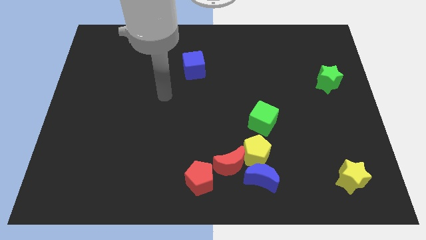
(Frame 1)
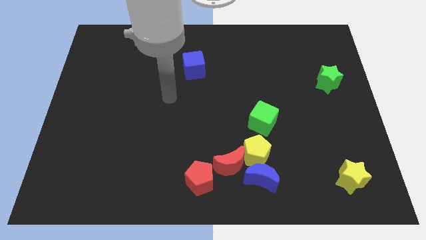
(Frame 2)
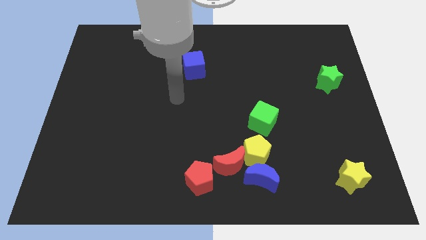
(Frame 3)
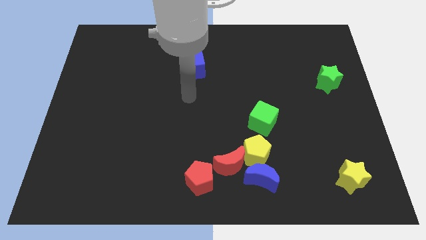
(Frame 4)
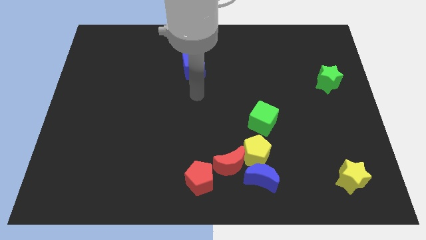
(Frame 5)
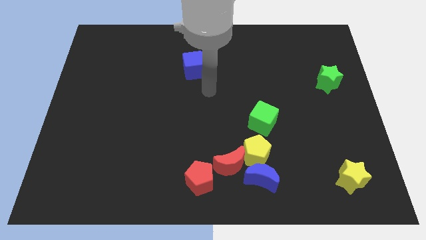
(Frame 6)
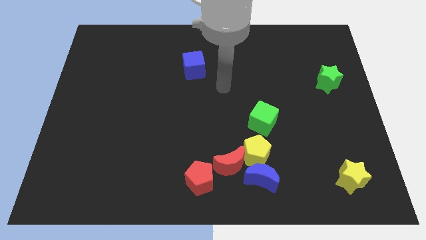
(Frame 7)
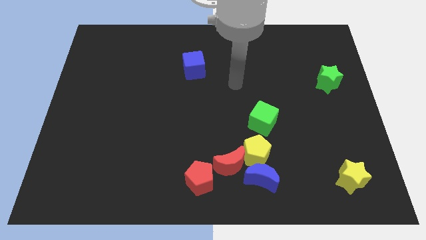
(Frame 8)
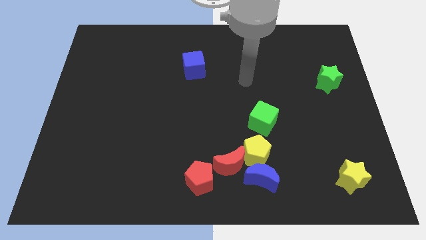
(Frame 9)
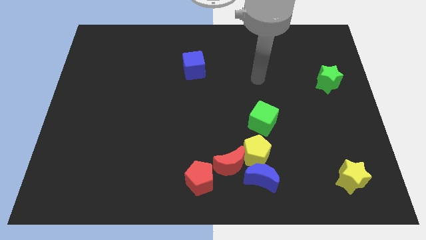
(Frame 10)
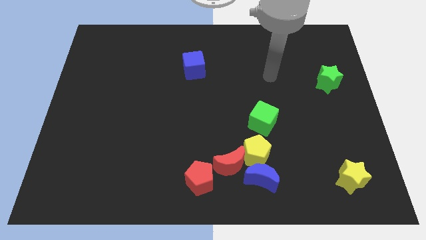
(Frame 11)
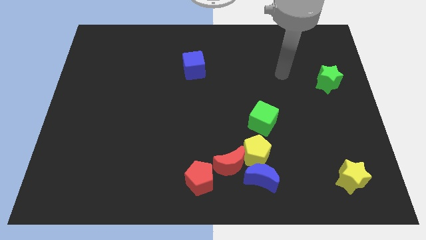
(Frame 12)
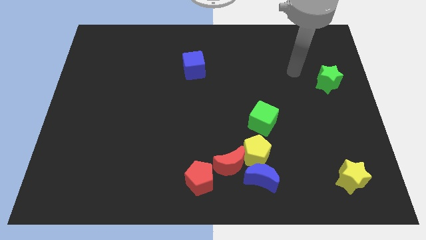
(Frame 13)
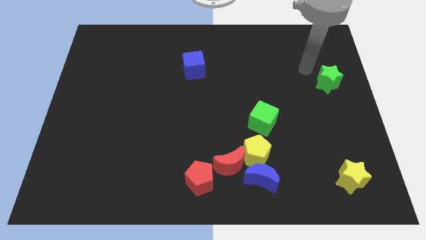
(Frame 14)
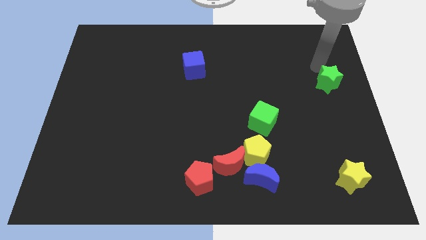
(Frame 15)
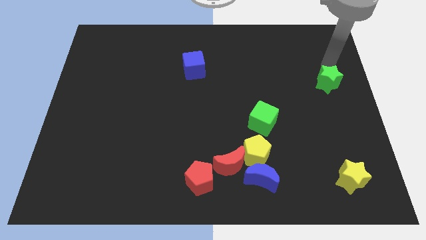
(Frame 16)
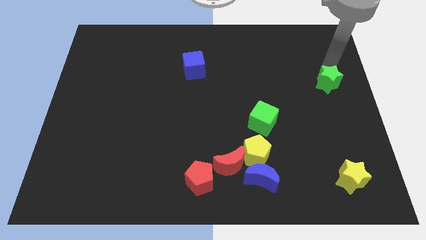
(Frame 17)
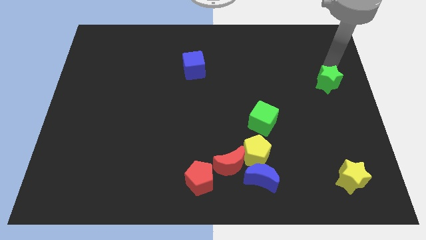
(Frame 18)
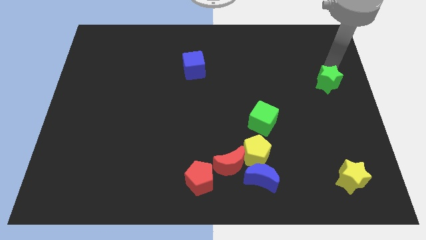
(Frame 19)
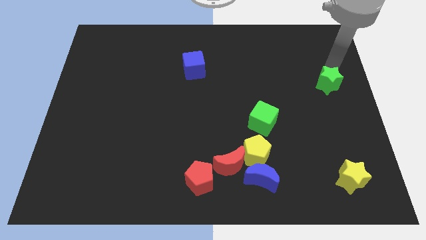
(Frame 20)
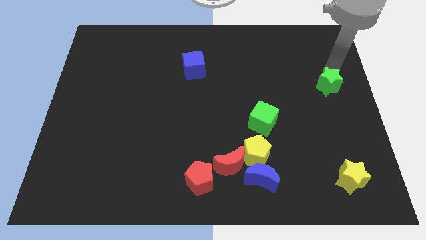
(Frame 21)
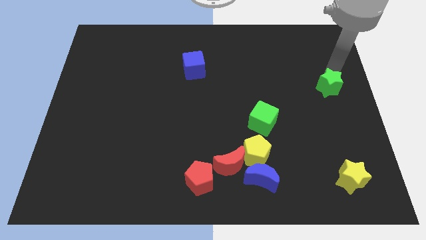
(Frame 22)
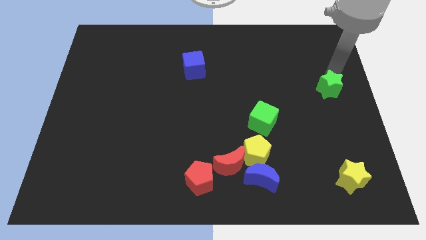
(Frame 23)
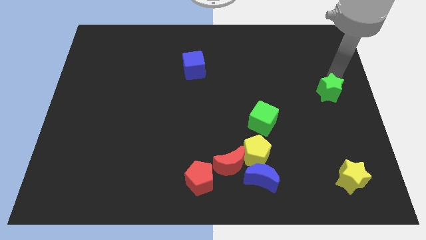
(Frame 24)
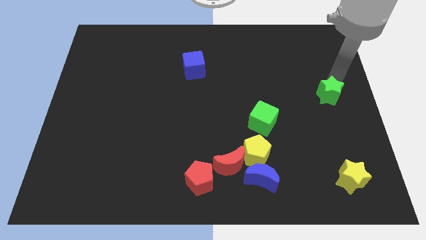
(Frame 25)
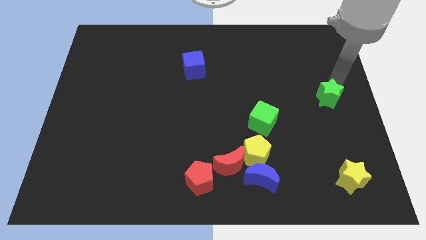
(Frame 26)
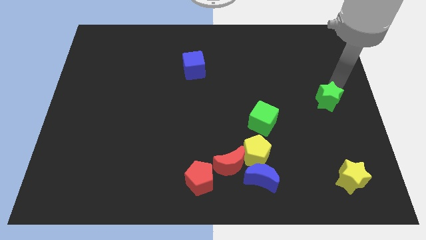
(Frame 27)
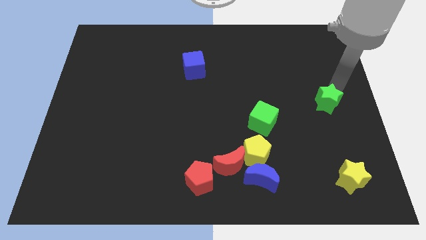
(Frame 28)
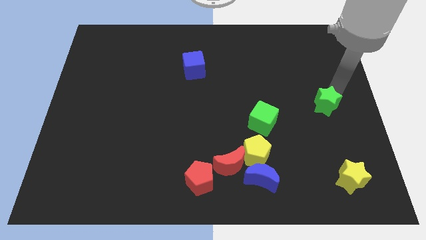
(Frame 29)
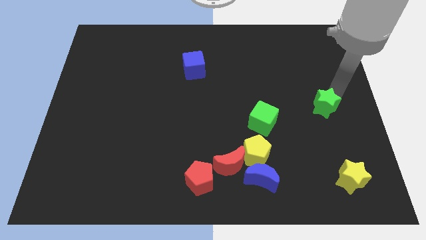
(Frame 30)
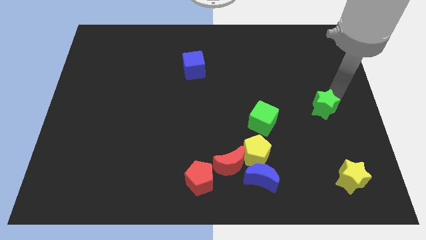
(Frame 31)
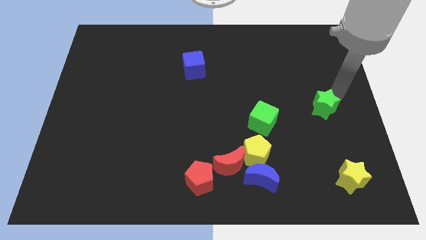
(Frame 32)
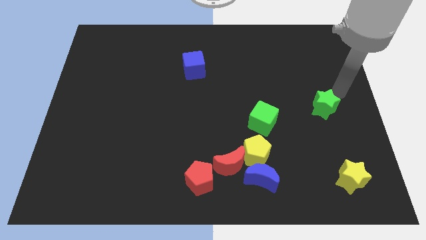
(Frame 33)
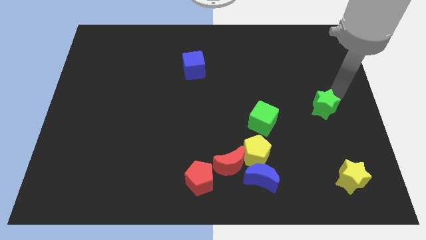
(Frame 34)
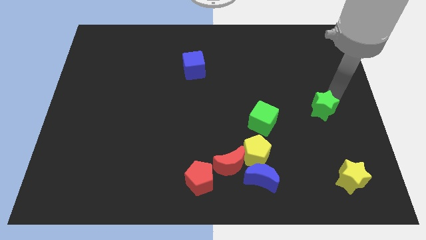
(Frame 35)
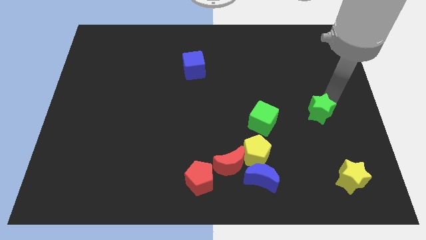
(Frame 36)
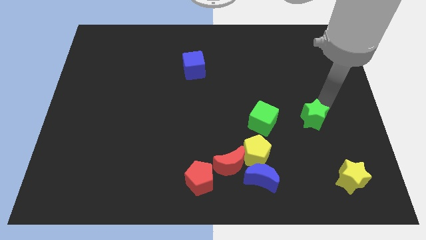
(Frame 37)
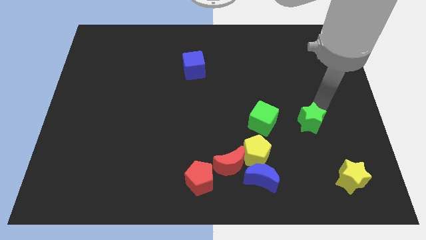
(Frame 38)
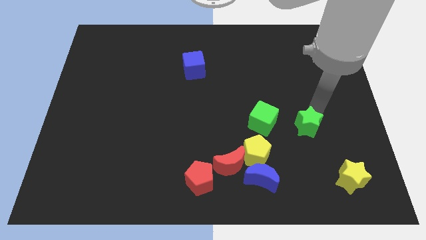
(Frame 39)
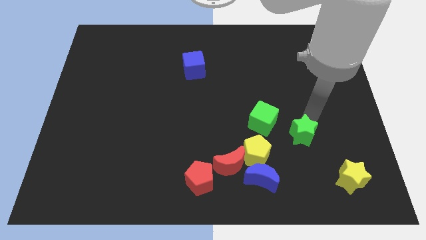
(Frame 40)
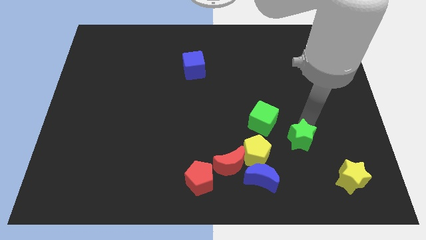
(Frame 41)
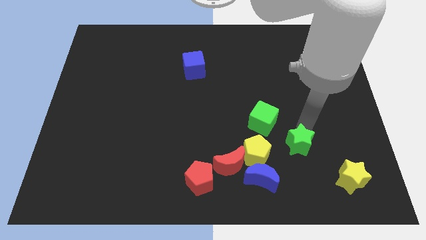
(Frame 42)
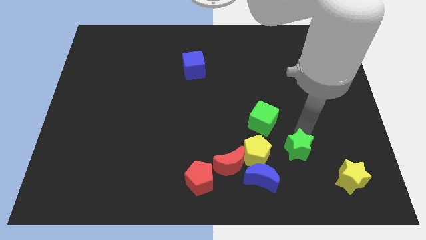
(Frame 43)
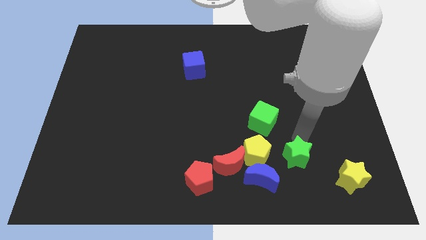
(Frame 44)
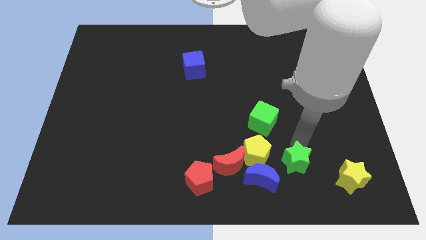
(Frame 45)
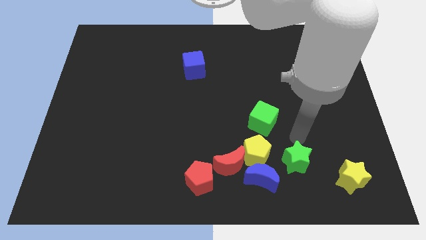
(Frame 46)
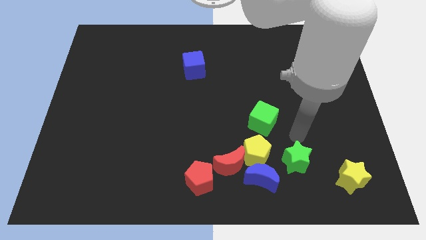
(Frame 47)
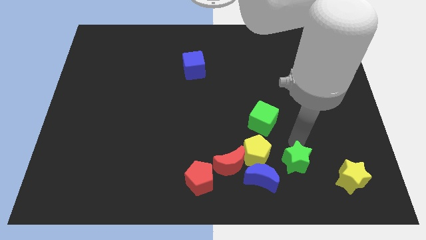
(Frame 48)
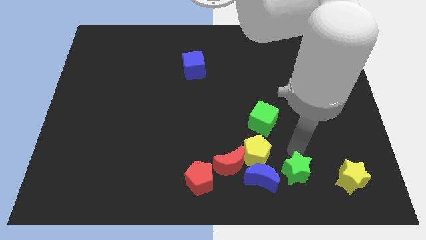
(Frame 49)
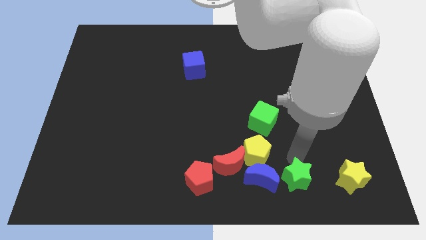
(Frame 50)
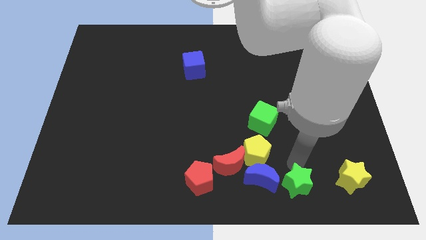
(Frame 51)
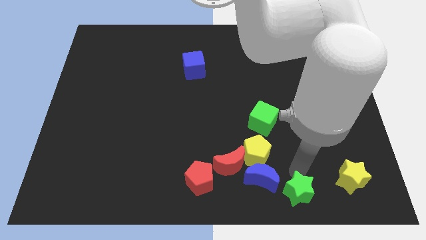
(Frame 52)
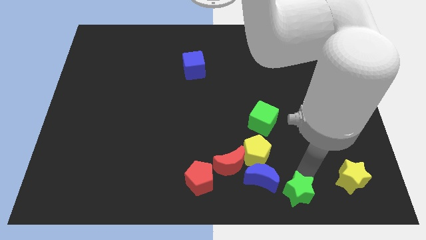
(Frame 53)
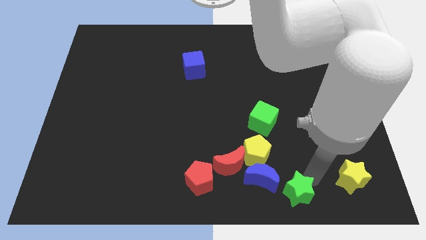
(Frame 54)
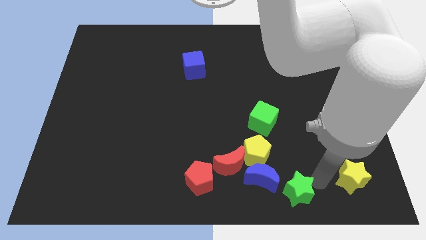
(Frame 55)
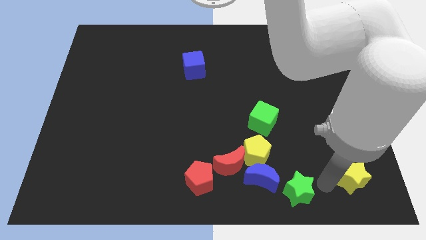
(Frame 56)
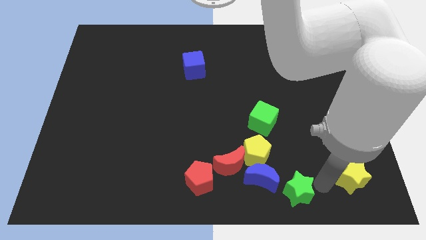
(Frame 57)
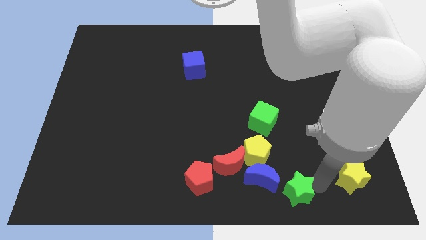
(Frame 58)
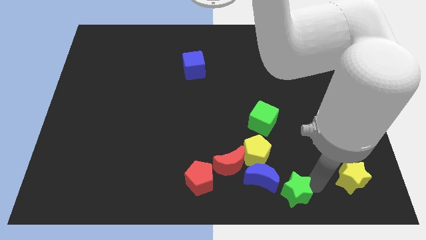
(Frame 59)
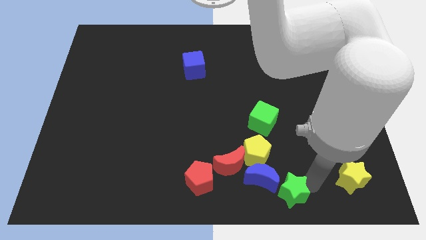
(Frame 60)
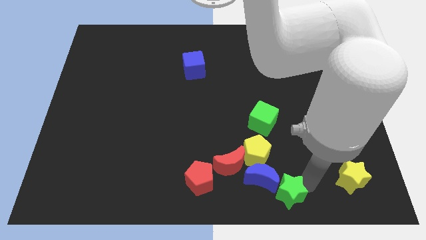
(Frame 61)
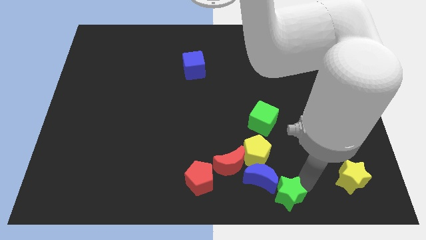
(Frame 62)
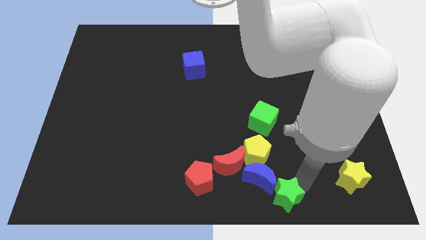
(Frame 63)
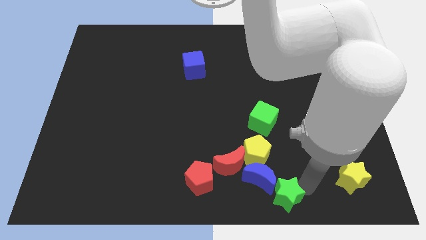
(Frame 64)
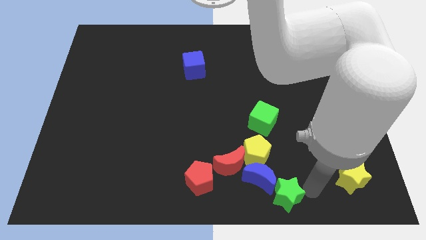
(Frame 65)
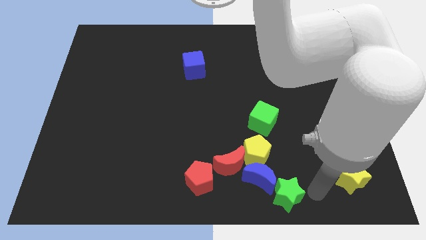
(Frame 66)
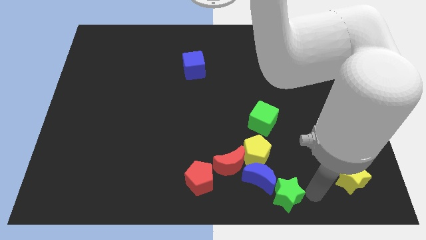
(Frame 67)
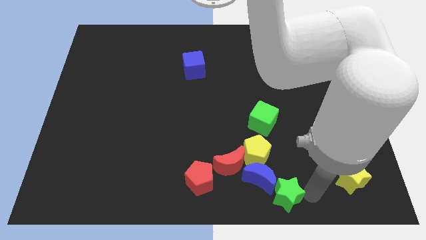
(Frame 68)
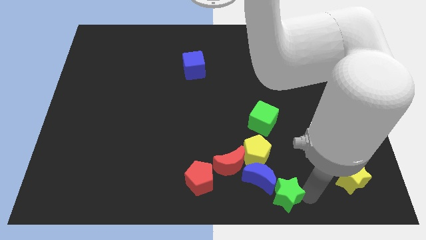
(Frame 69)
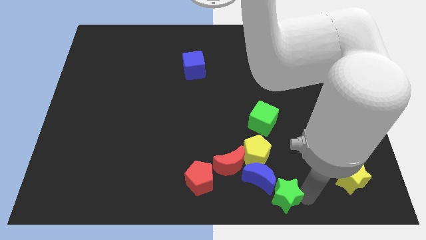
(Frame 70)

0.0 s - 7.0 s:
slide the green star to the bottom side
